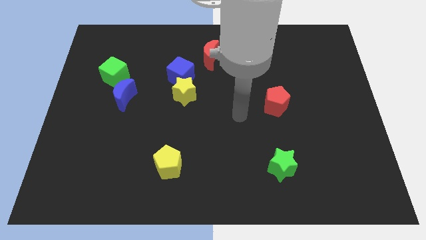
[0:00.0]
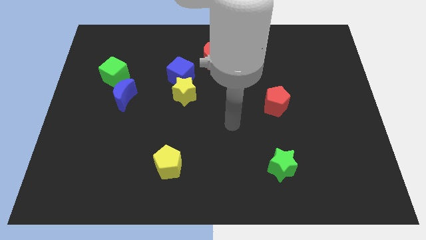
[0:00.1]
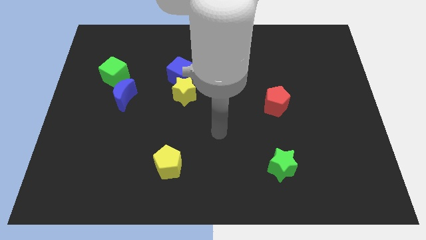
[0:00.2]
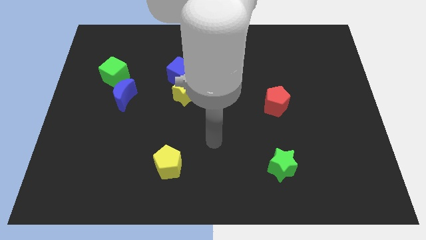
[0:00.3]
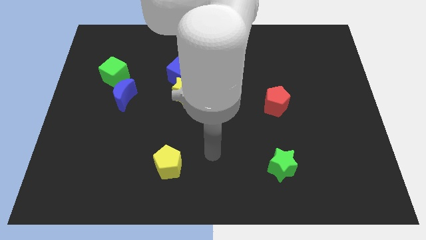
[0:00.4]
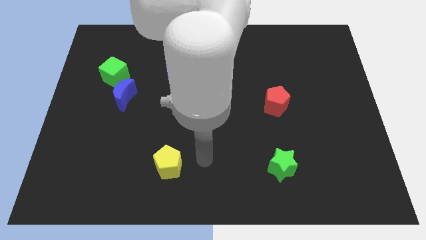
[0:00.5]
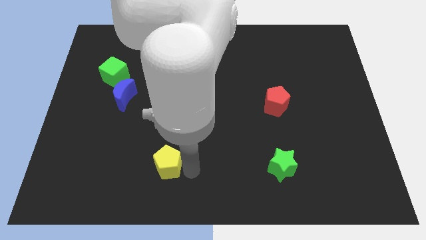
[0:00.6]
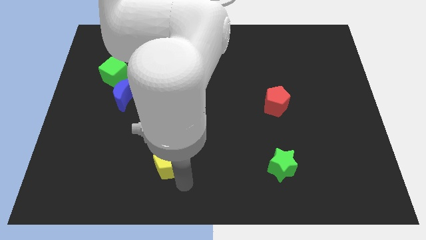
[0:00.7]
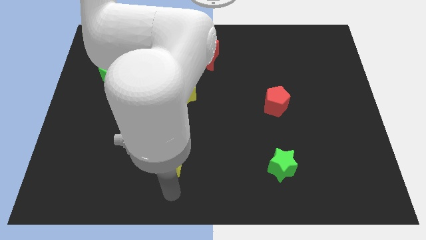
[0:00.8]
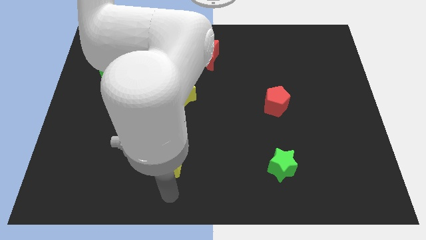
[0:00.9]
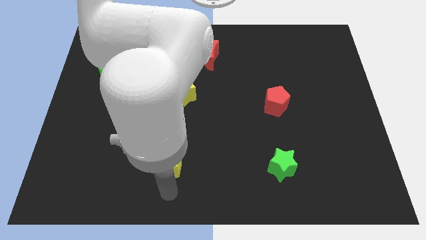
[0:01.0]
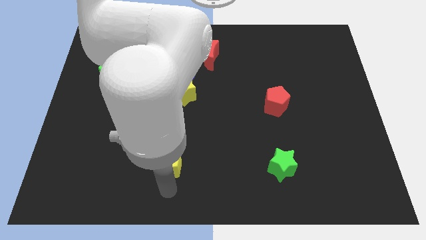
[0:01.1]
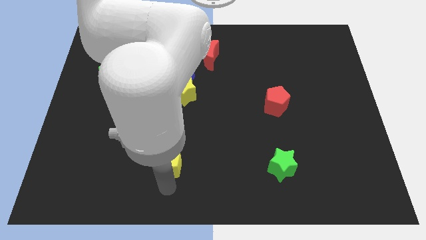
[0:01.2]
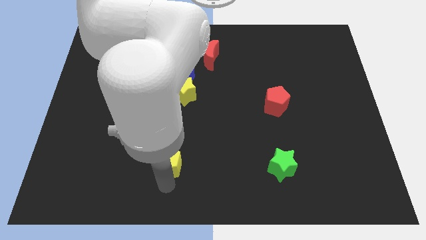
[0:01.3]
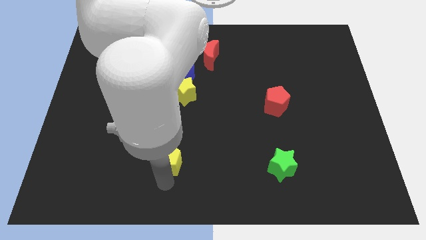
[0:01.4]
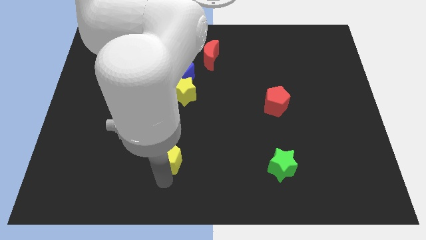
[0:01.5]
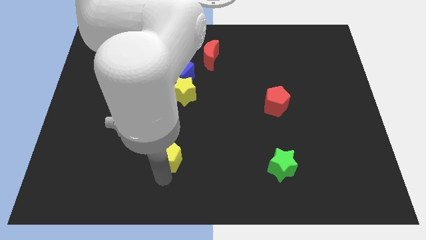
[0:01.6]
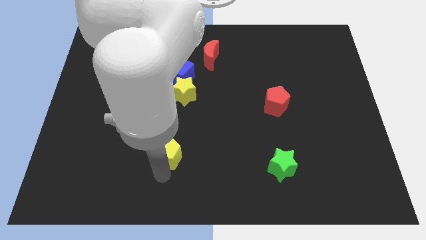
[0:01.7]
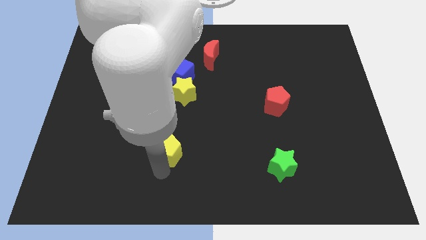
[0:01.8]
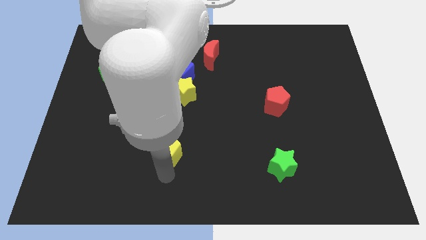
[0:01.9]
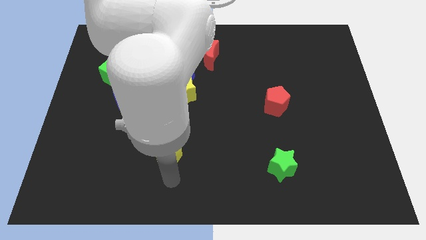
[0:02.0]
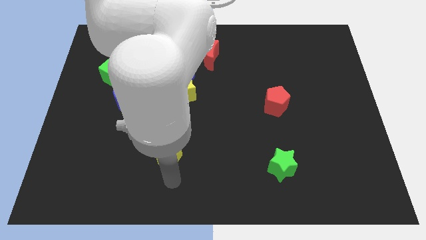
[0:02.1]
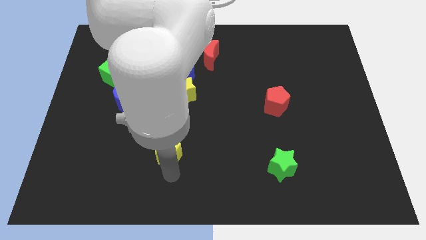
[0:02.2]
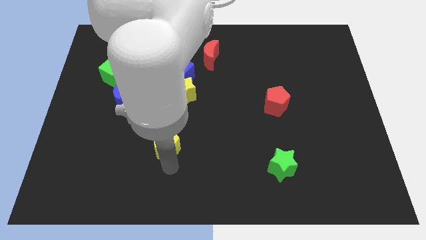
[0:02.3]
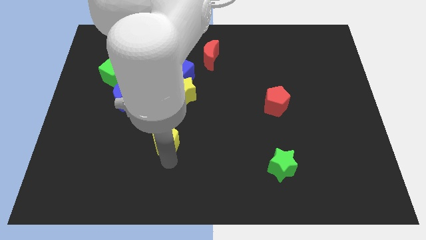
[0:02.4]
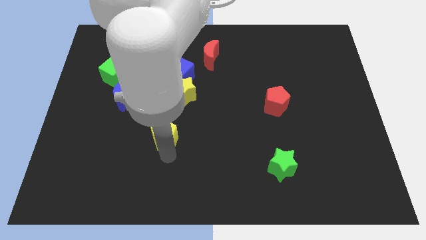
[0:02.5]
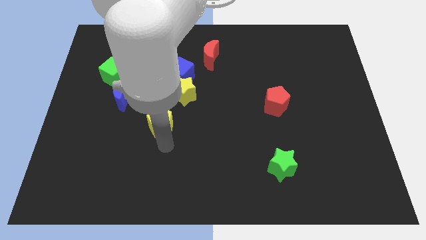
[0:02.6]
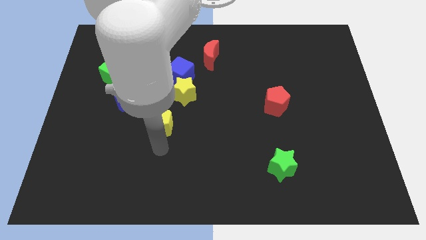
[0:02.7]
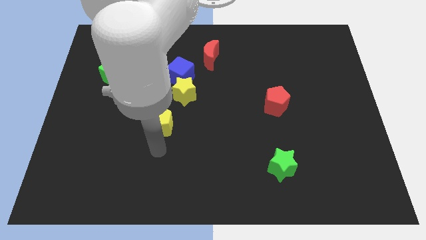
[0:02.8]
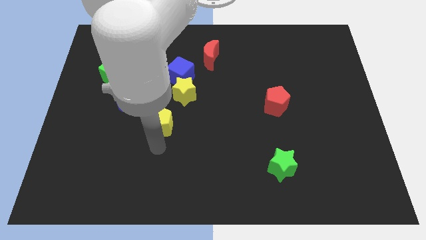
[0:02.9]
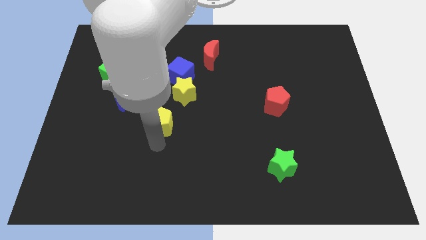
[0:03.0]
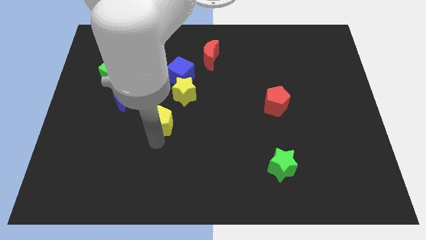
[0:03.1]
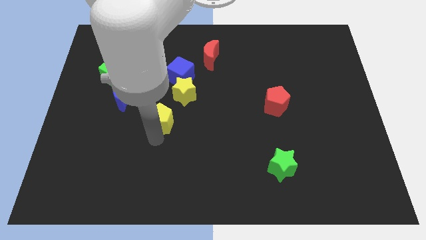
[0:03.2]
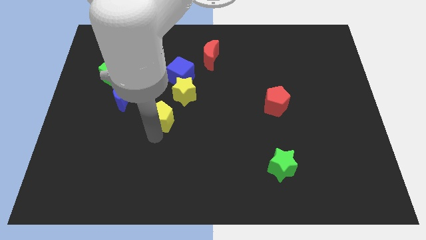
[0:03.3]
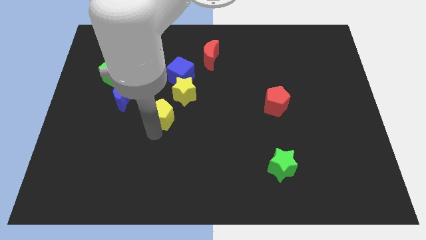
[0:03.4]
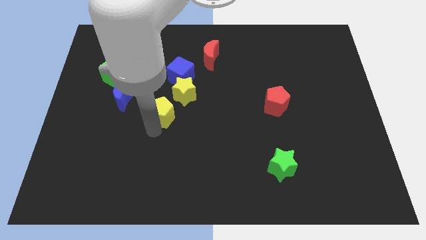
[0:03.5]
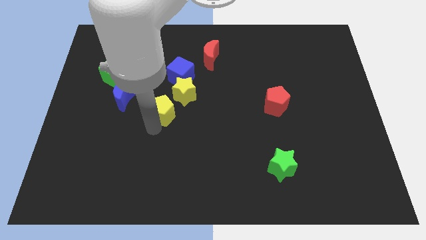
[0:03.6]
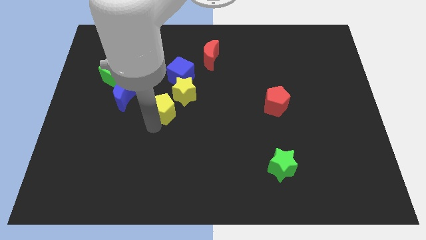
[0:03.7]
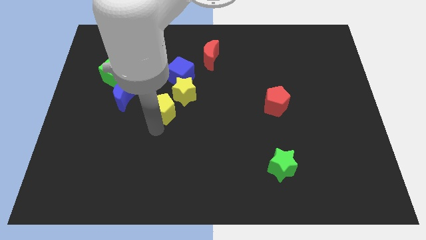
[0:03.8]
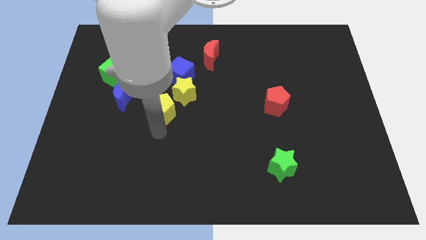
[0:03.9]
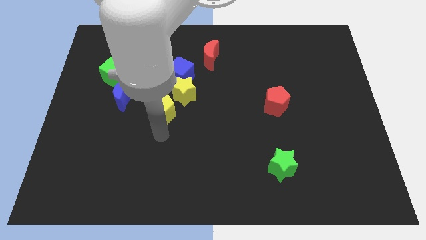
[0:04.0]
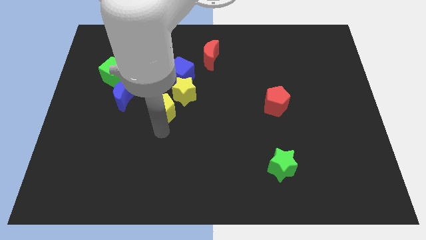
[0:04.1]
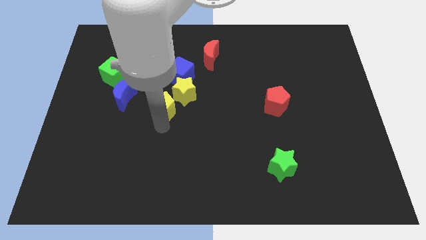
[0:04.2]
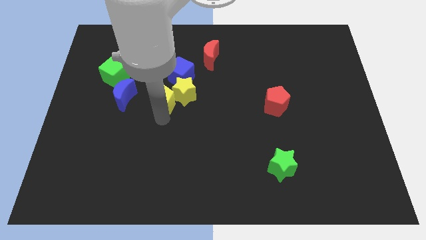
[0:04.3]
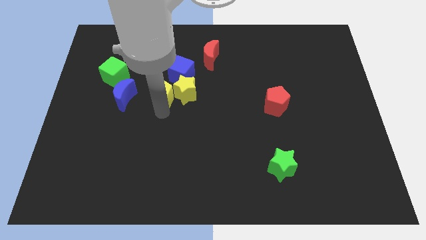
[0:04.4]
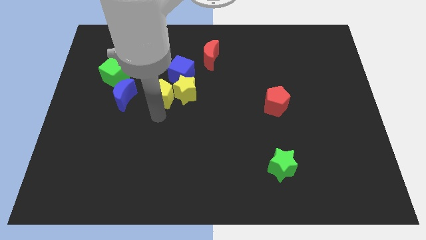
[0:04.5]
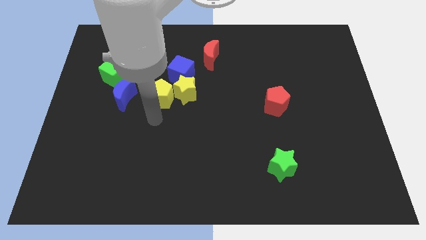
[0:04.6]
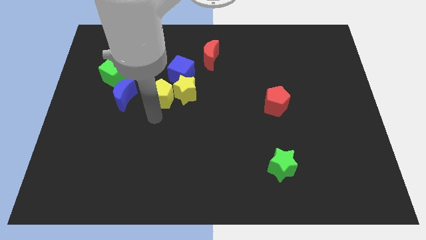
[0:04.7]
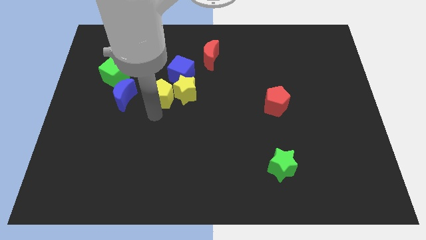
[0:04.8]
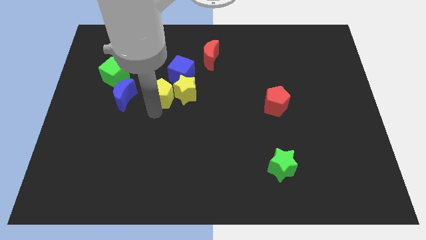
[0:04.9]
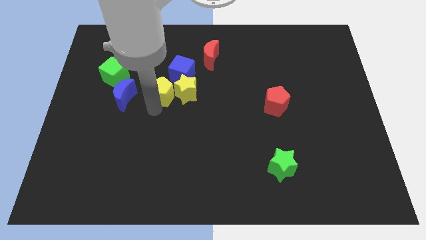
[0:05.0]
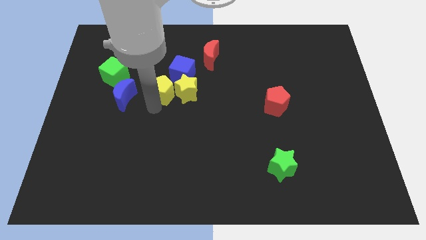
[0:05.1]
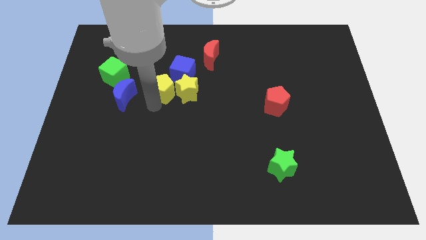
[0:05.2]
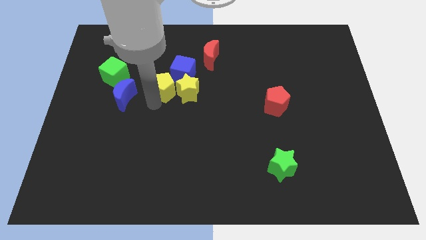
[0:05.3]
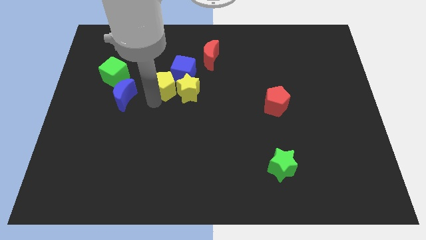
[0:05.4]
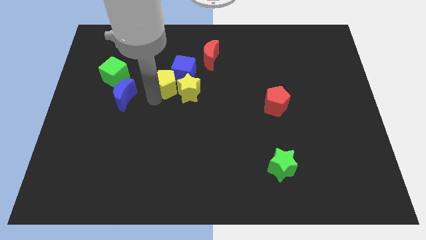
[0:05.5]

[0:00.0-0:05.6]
put the yellow pentagon close to the blue cube

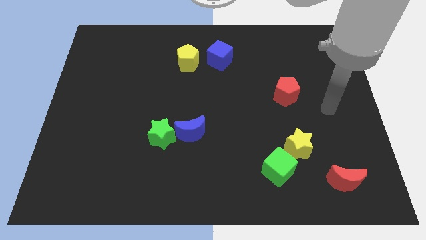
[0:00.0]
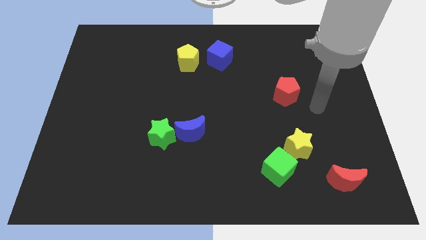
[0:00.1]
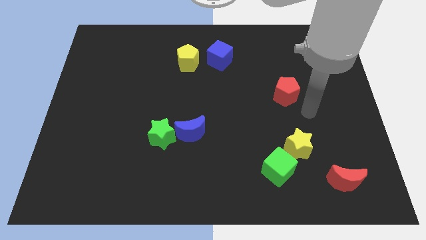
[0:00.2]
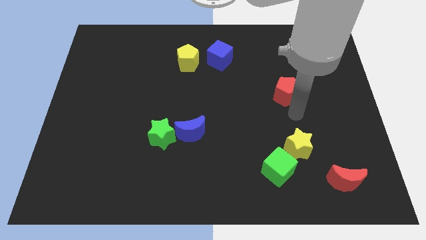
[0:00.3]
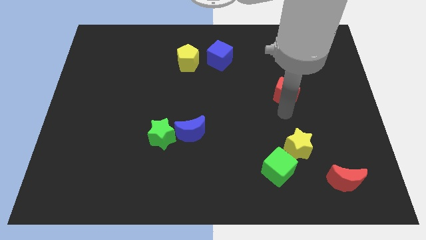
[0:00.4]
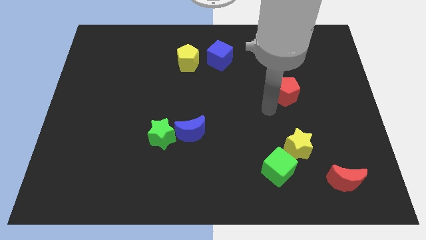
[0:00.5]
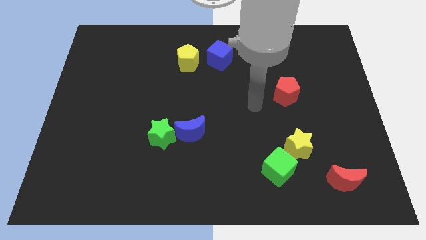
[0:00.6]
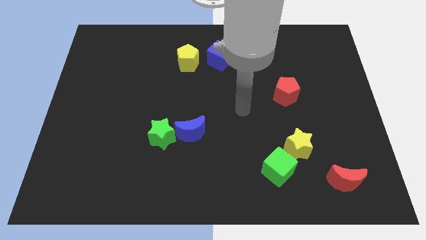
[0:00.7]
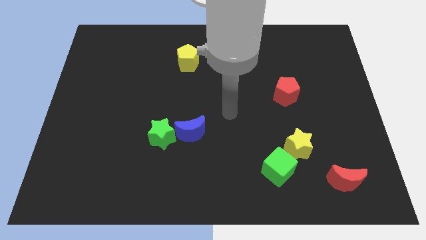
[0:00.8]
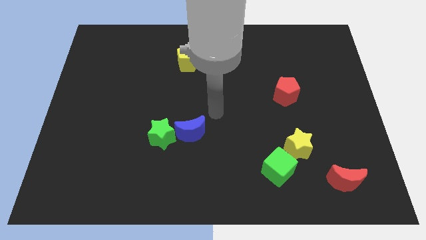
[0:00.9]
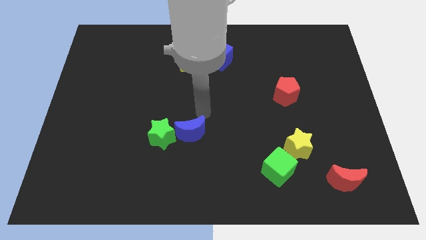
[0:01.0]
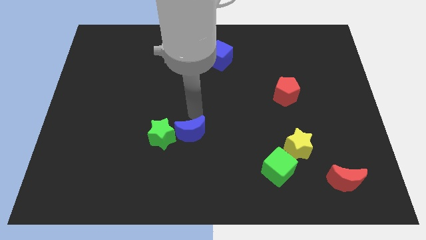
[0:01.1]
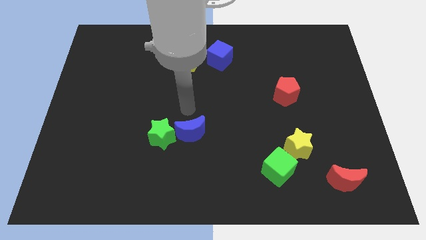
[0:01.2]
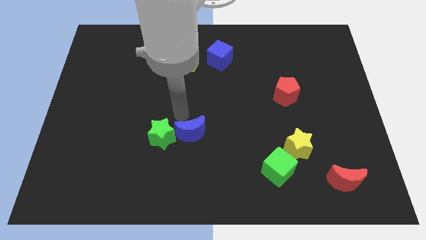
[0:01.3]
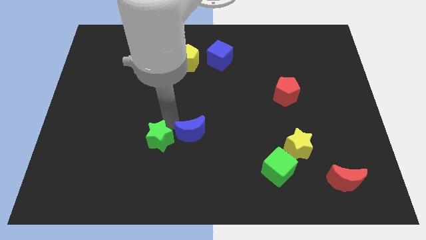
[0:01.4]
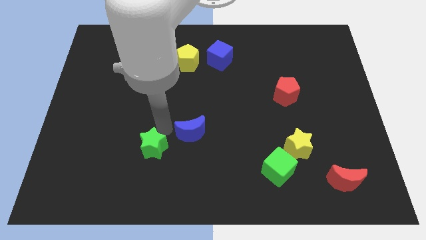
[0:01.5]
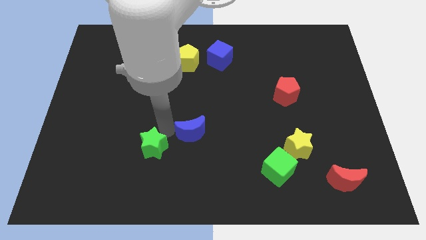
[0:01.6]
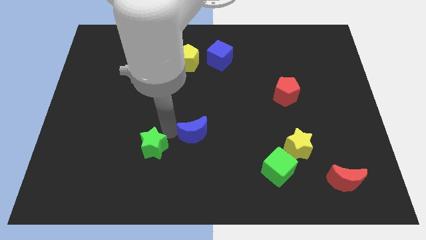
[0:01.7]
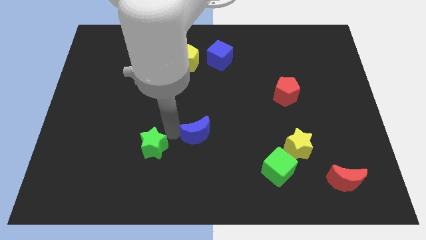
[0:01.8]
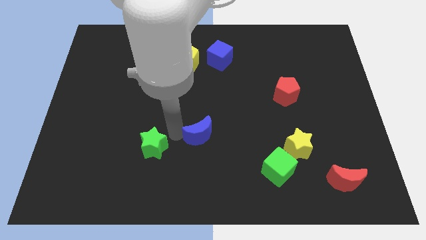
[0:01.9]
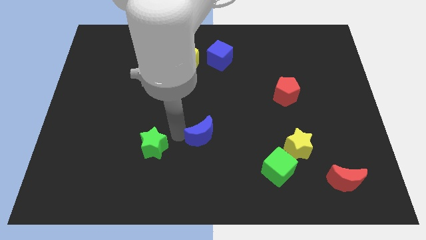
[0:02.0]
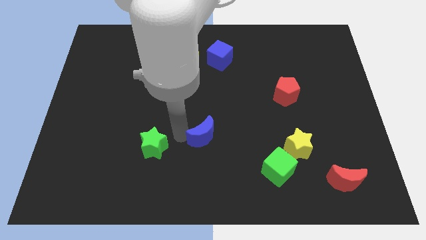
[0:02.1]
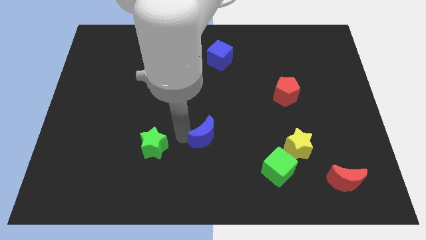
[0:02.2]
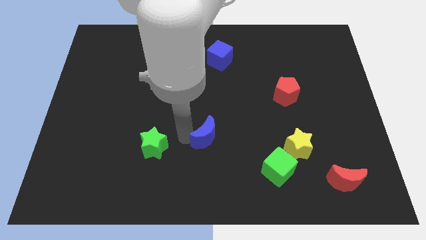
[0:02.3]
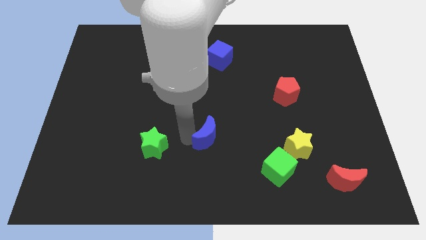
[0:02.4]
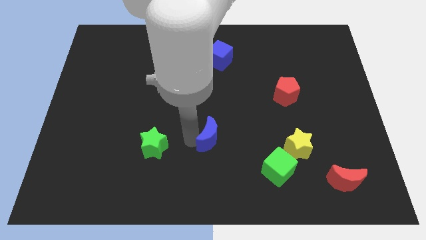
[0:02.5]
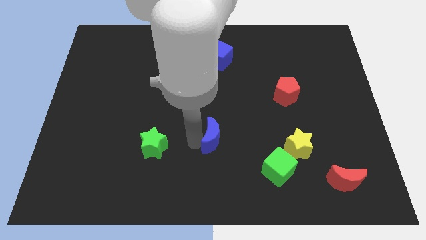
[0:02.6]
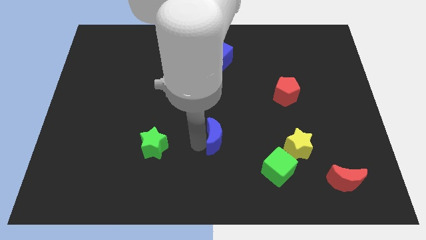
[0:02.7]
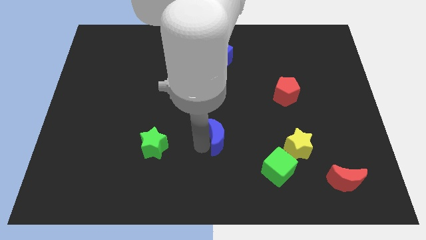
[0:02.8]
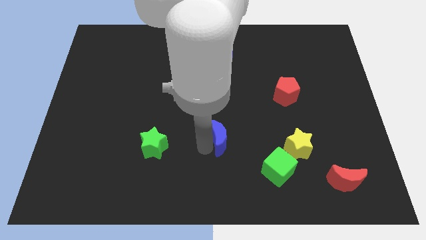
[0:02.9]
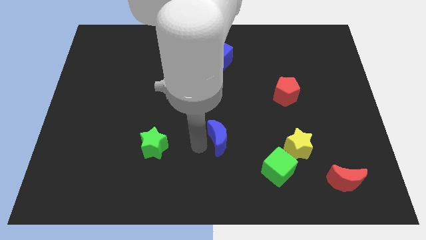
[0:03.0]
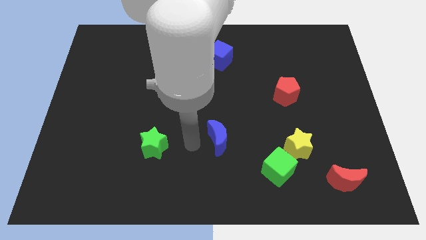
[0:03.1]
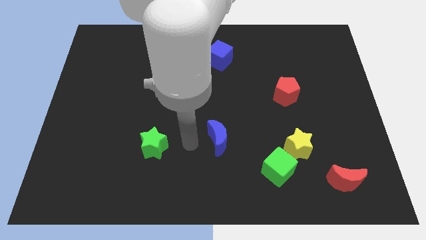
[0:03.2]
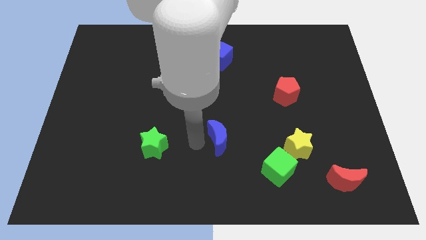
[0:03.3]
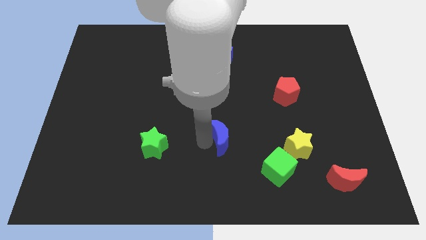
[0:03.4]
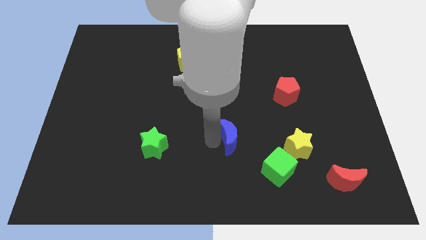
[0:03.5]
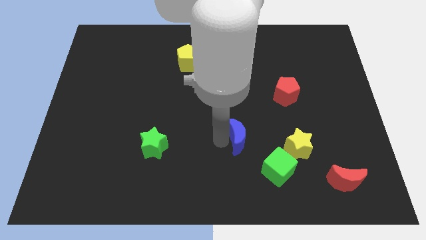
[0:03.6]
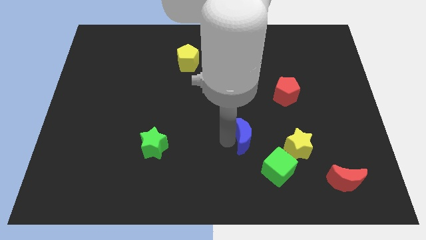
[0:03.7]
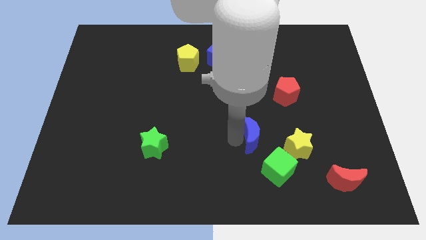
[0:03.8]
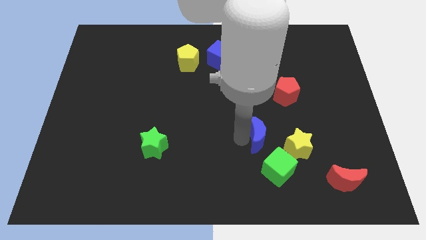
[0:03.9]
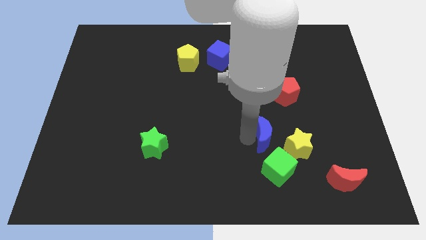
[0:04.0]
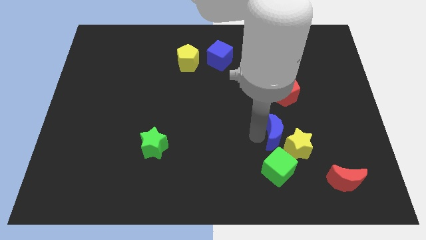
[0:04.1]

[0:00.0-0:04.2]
move the blue moon towards the yellow star
